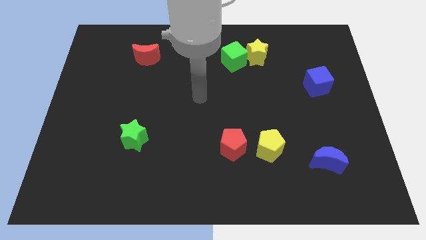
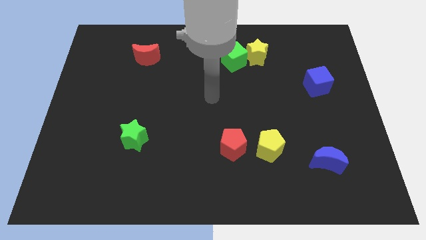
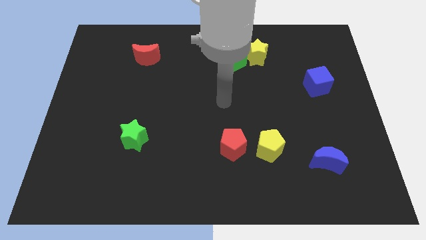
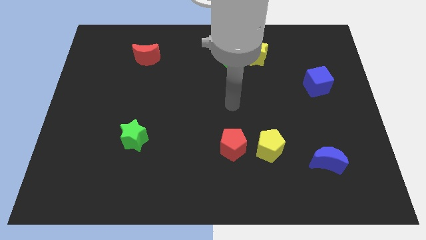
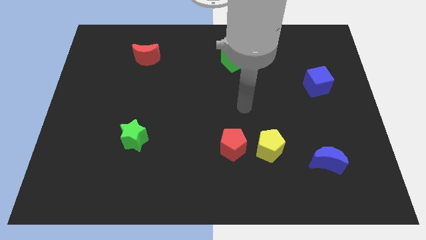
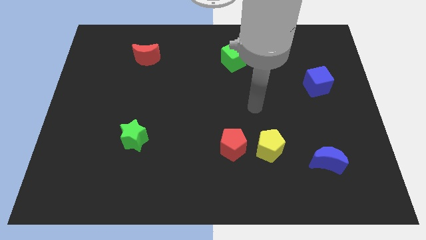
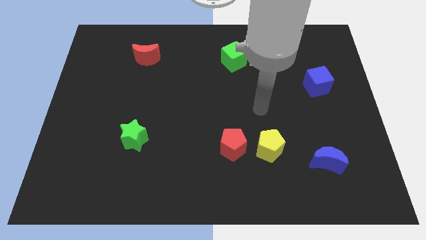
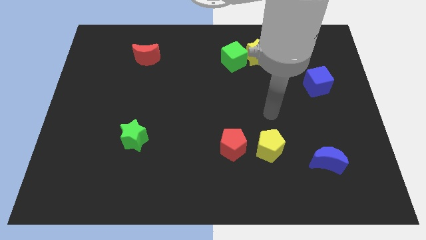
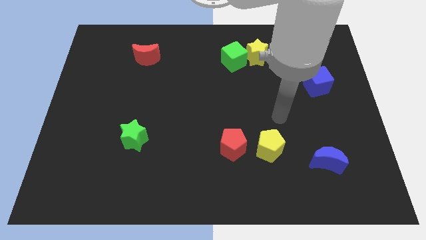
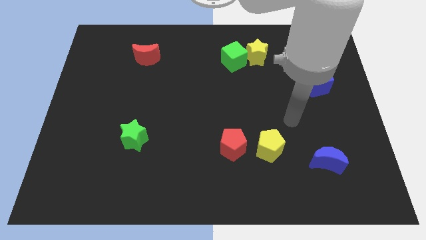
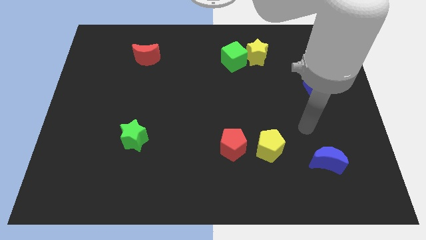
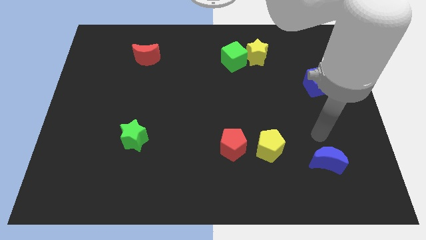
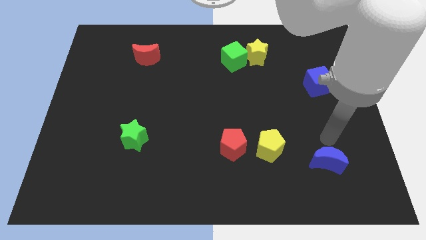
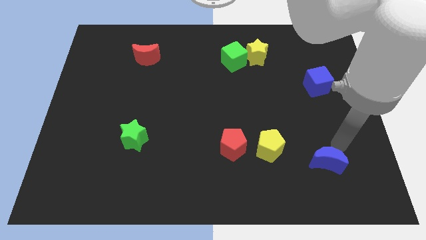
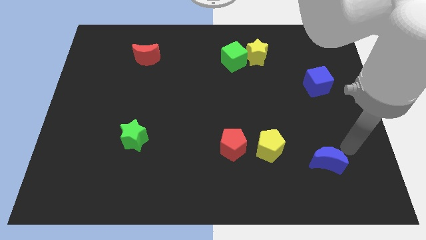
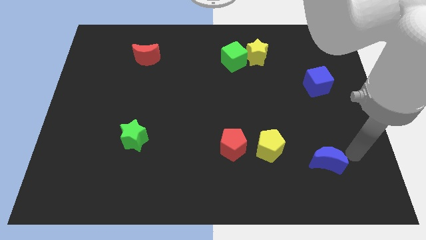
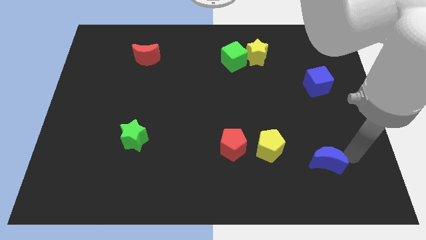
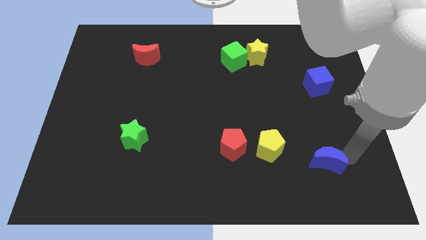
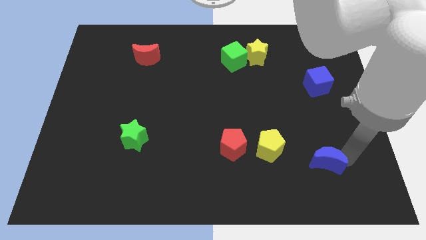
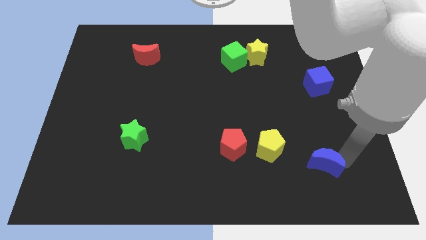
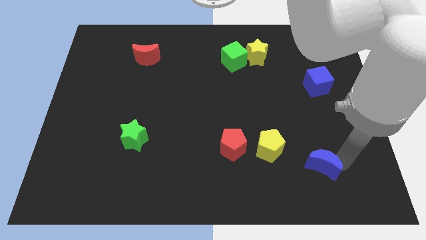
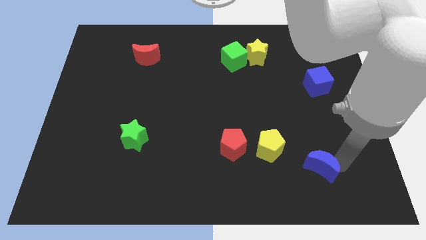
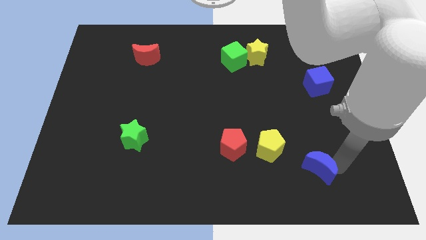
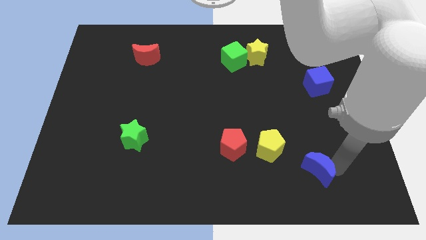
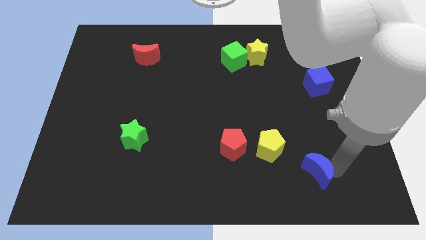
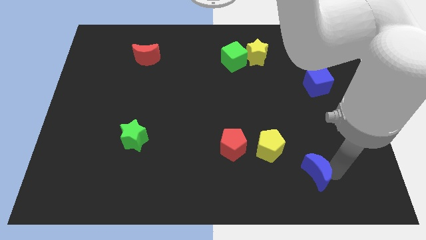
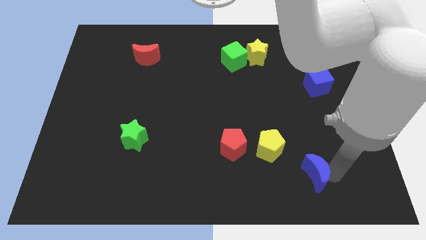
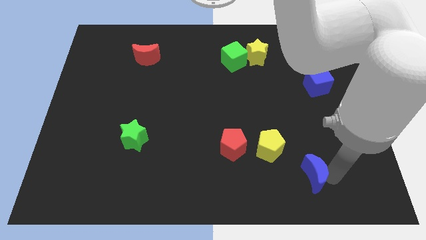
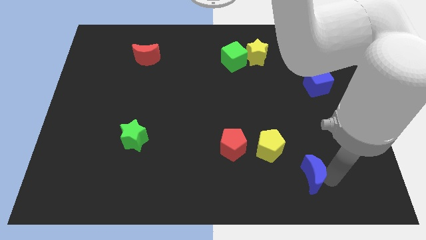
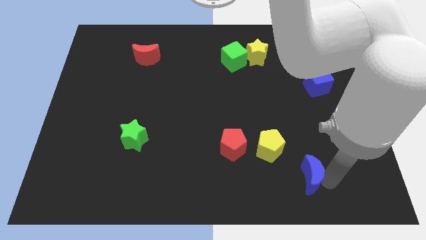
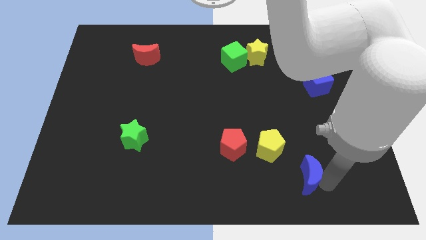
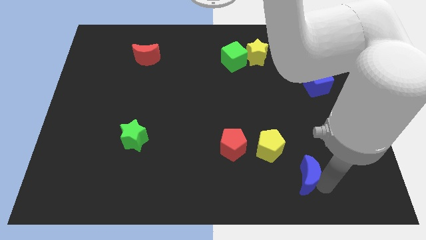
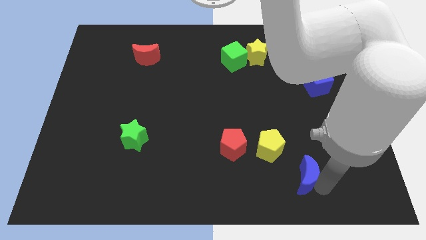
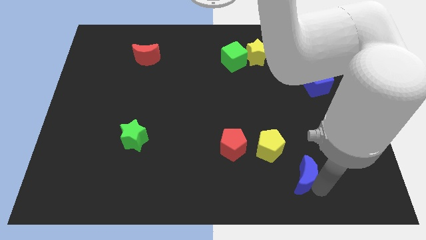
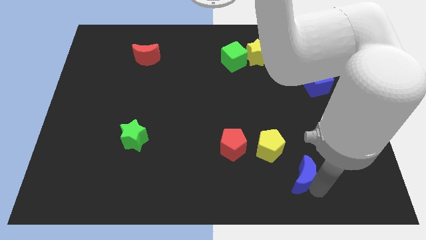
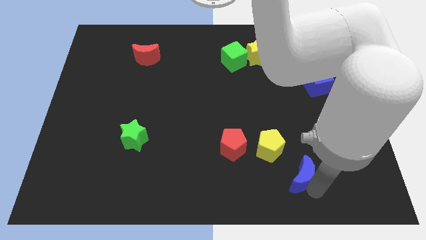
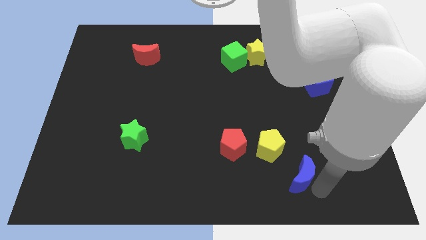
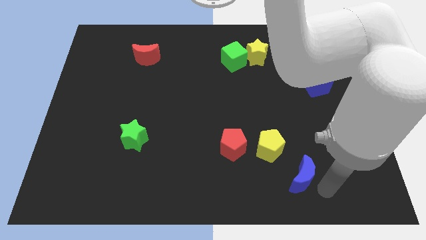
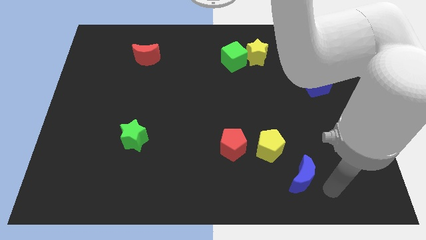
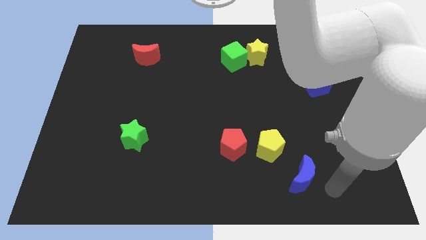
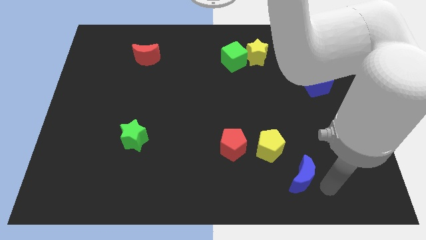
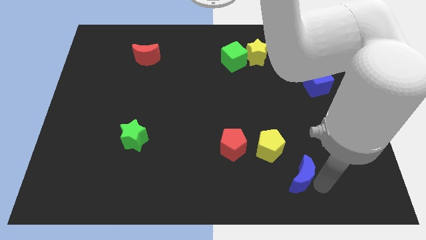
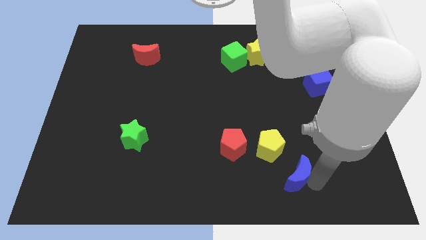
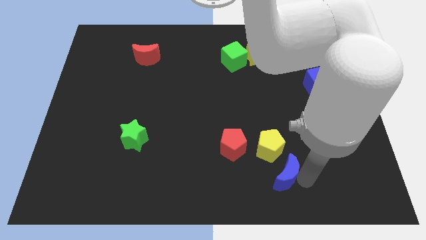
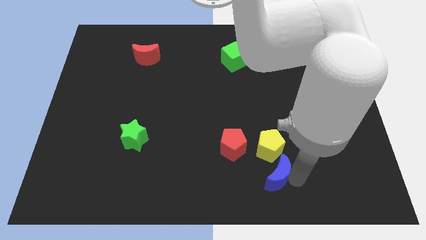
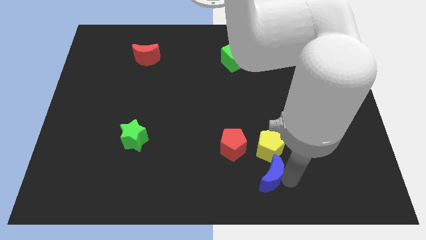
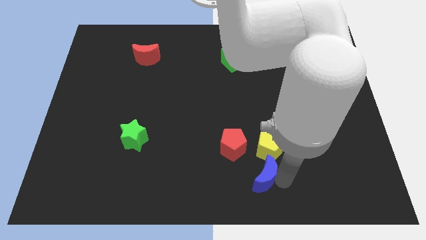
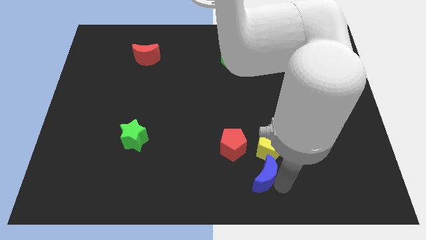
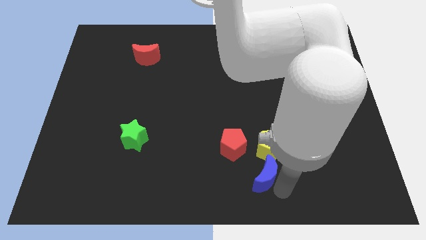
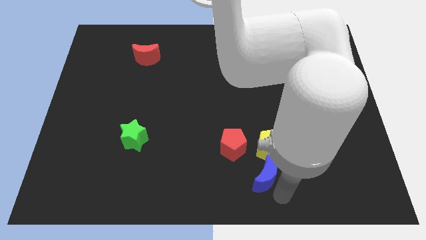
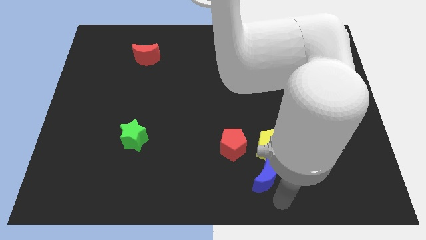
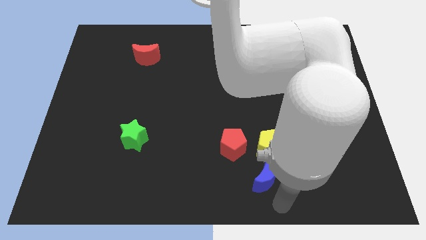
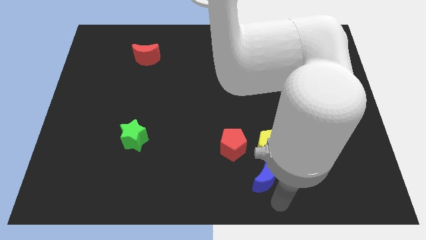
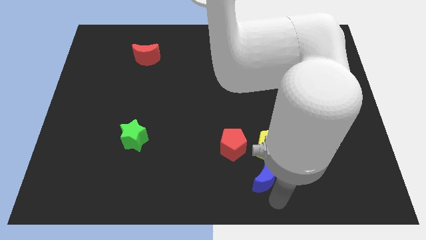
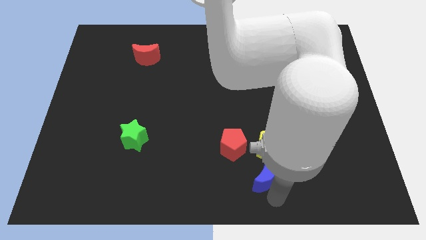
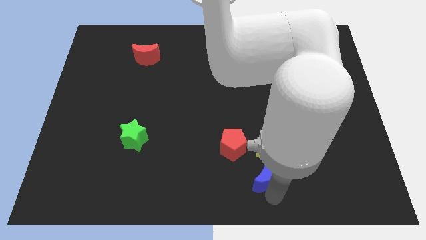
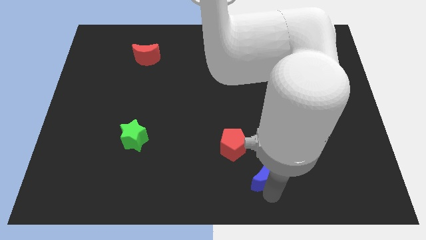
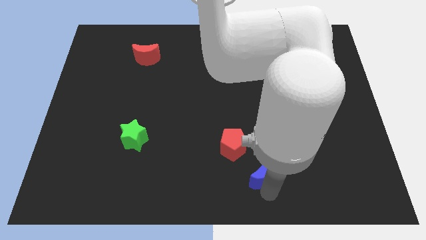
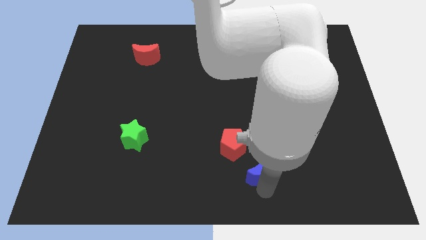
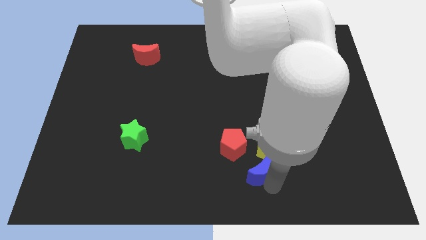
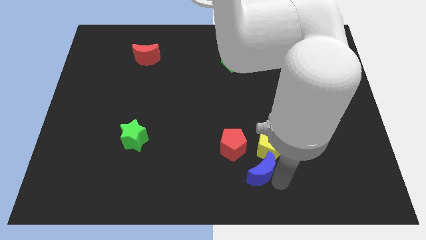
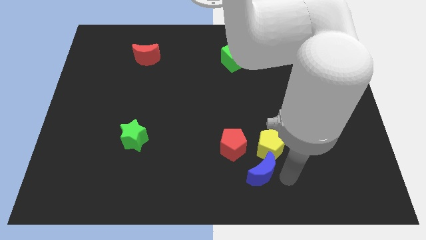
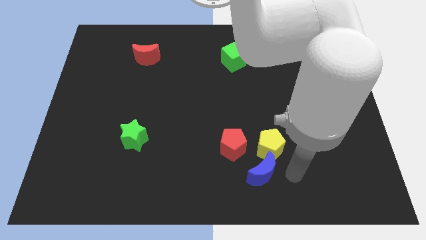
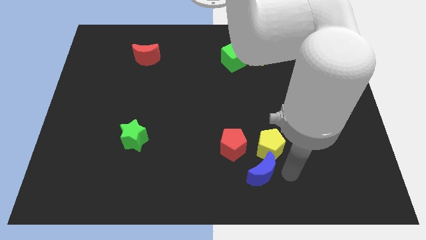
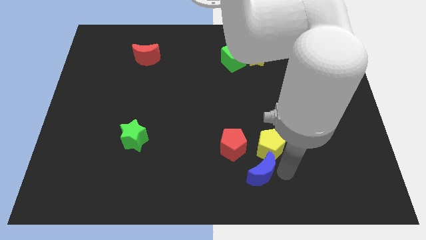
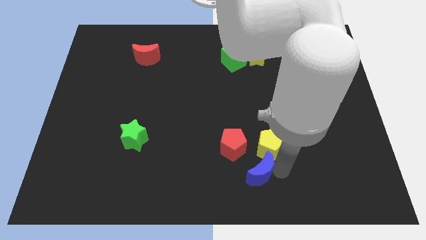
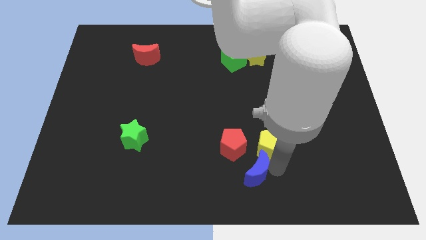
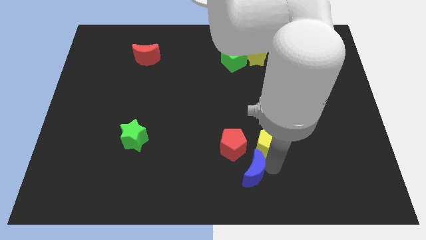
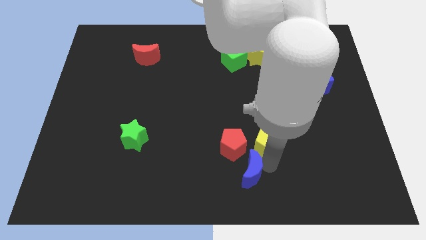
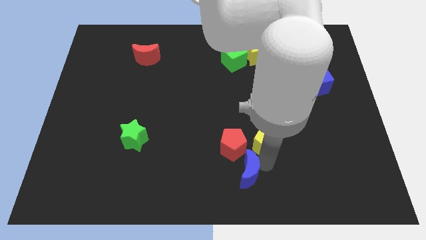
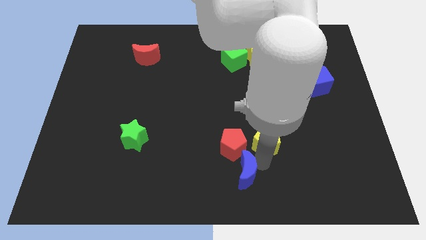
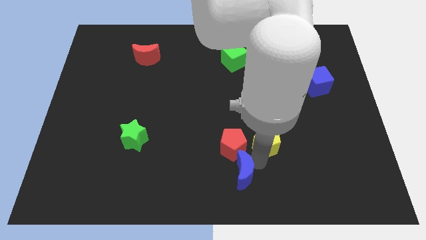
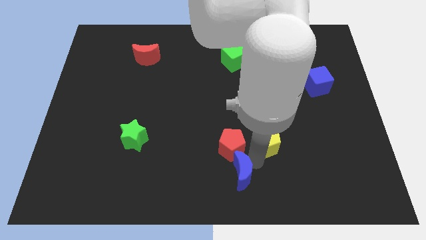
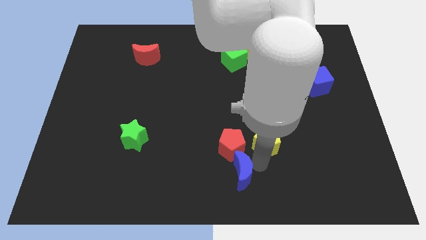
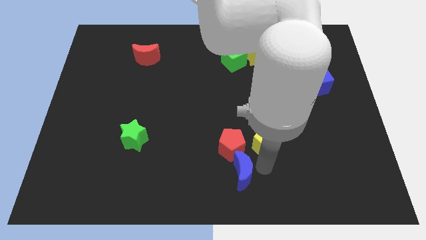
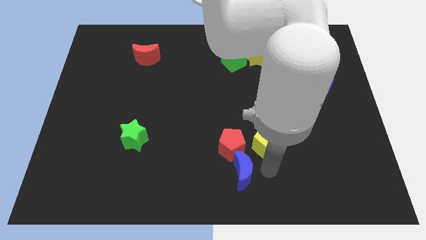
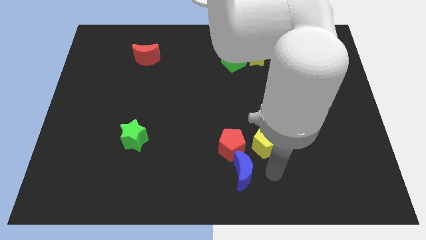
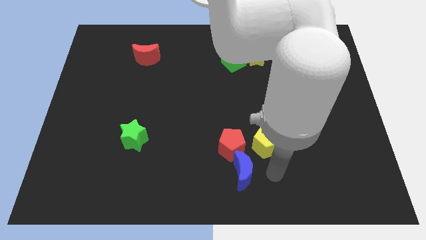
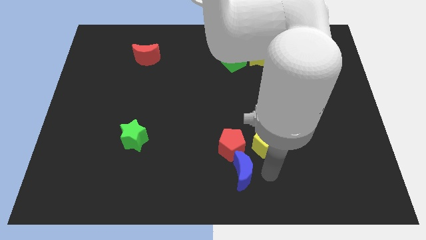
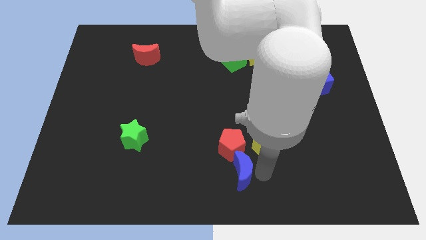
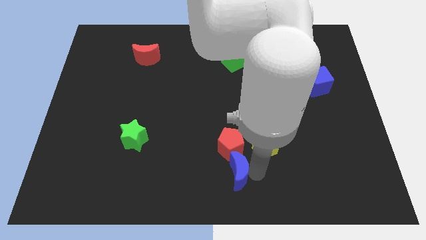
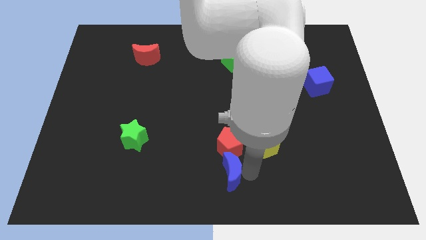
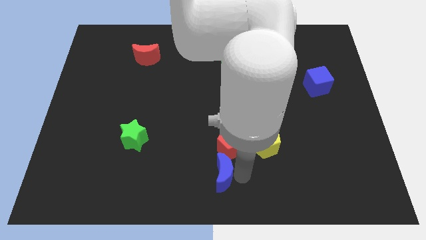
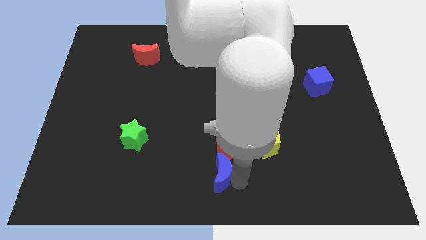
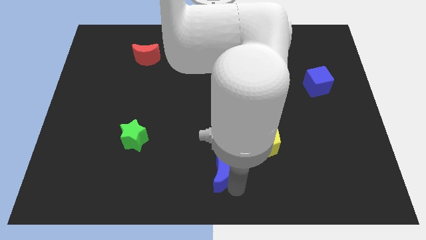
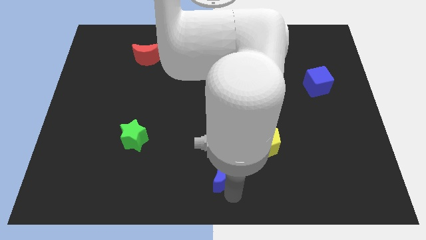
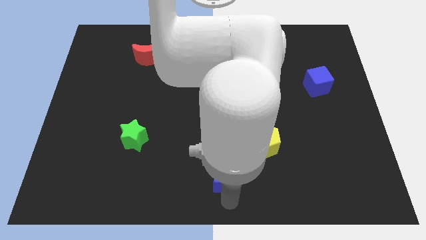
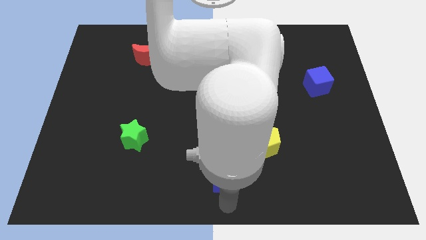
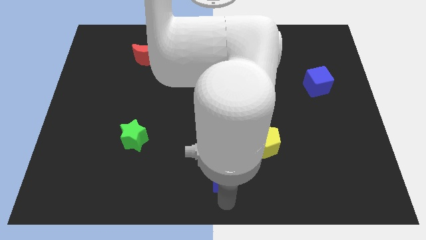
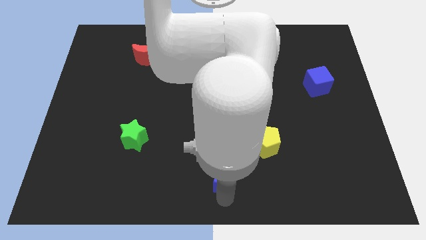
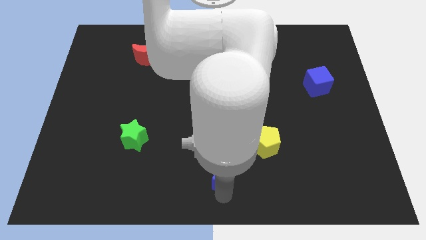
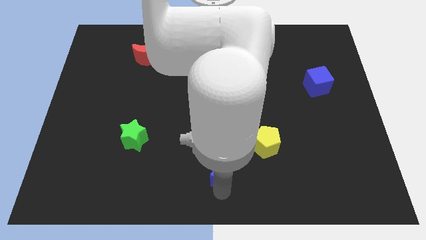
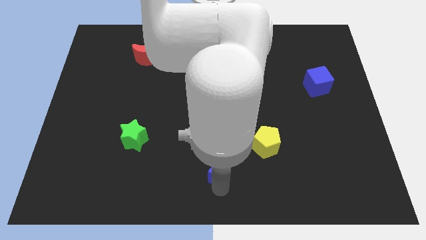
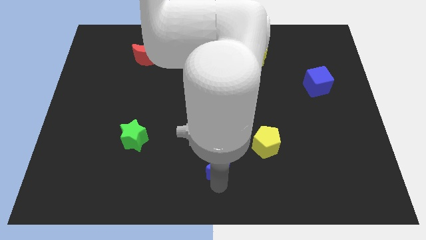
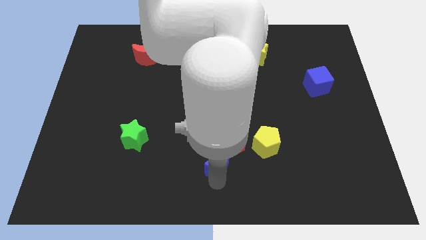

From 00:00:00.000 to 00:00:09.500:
slide the blue moon to the left of the yellow pentagon
